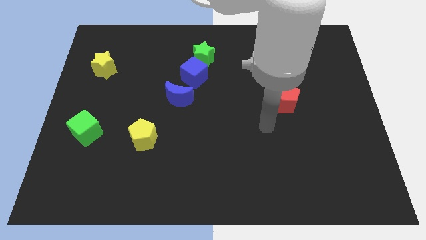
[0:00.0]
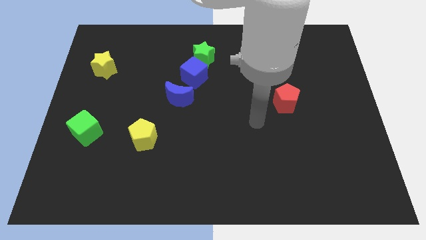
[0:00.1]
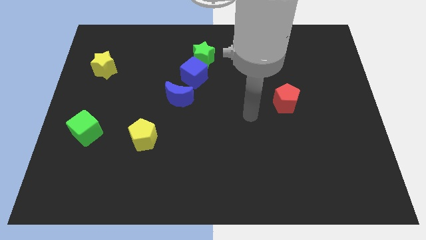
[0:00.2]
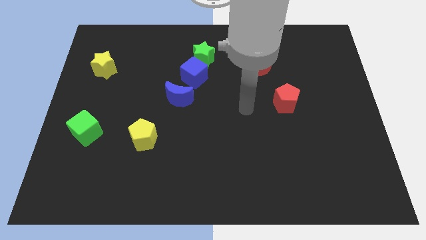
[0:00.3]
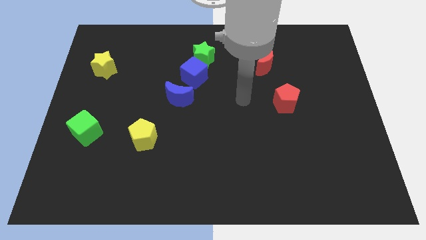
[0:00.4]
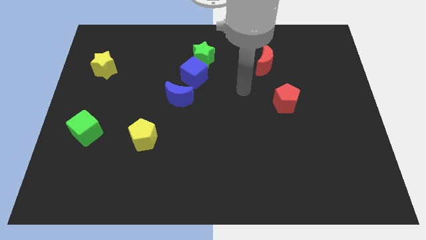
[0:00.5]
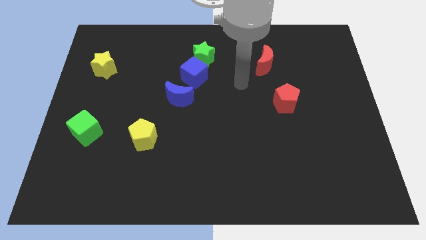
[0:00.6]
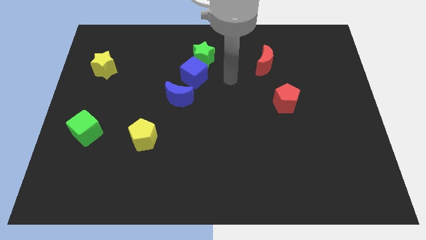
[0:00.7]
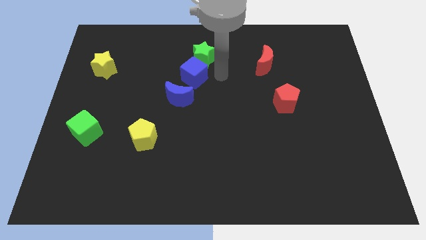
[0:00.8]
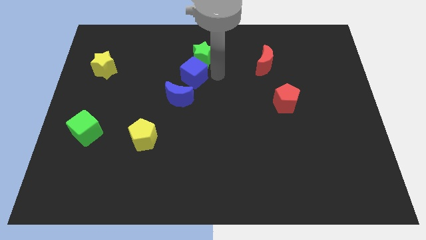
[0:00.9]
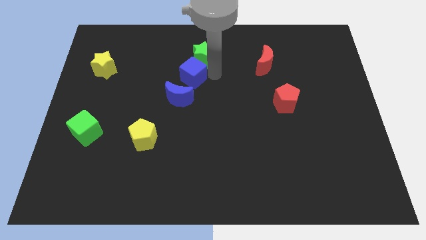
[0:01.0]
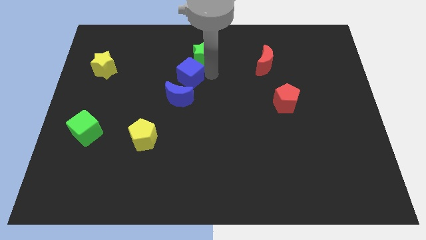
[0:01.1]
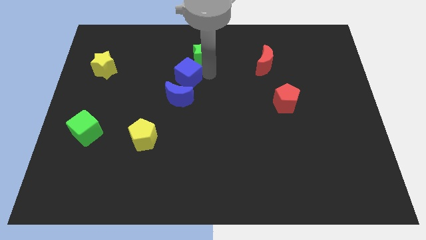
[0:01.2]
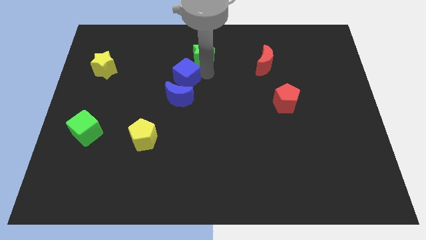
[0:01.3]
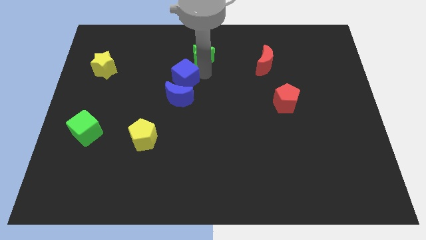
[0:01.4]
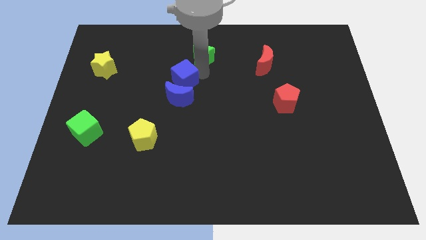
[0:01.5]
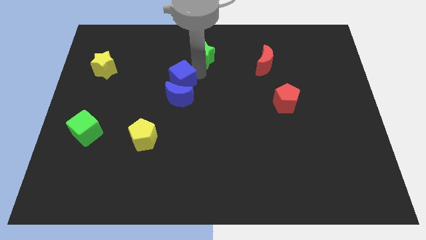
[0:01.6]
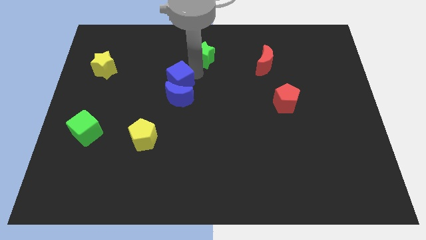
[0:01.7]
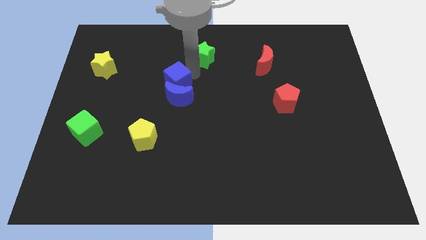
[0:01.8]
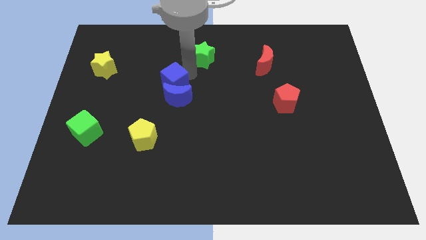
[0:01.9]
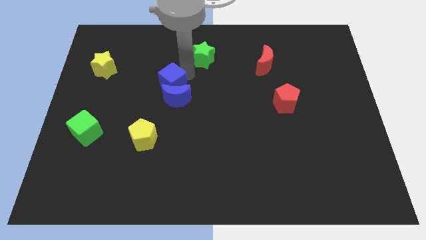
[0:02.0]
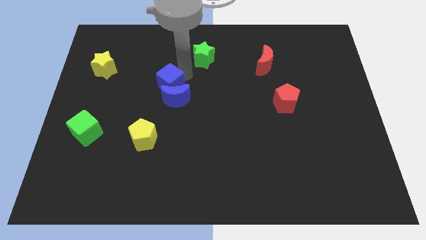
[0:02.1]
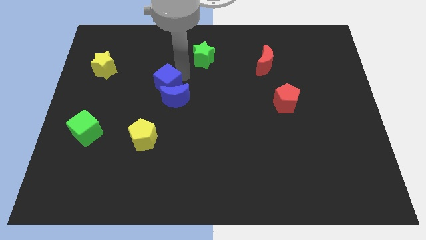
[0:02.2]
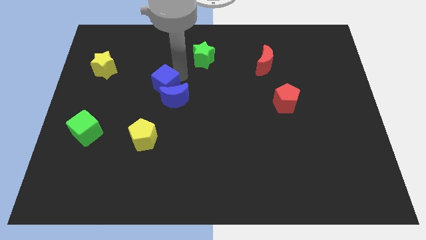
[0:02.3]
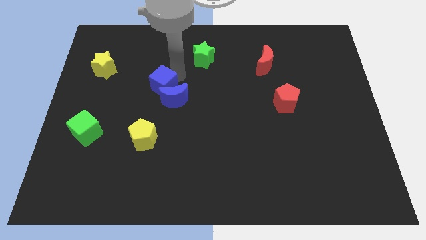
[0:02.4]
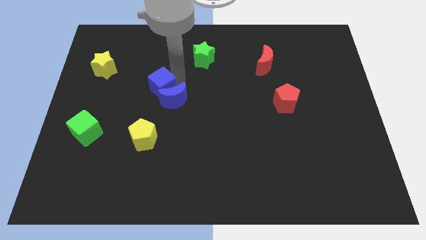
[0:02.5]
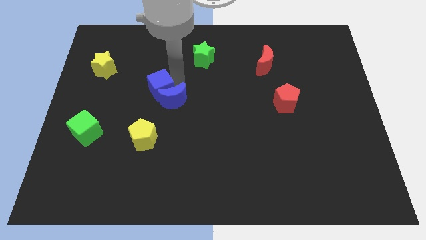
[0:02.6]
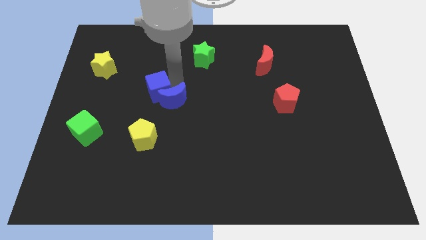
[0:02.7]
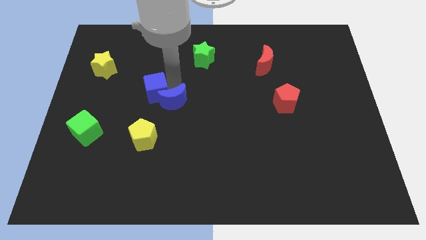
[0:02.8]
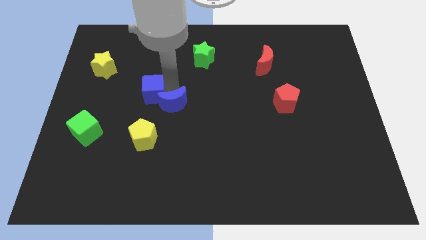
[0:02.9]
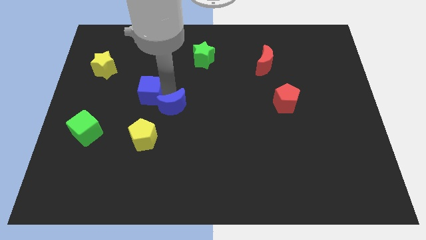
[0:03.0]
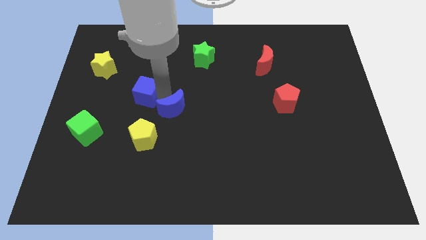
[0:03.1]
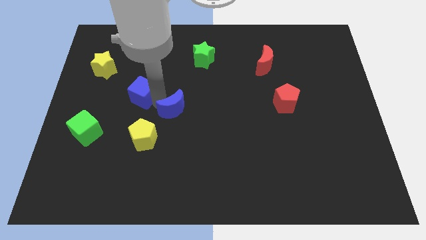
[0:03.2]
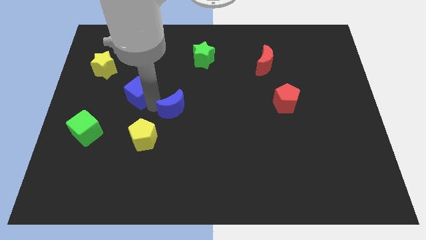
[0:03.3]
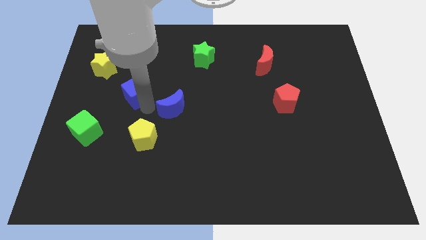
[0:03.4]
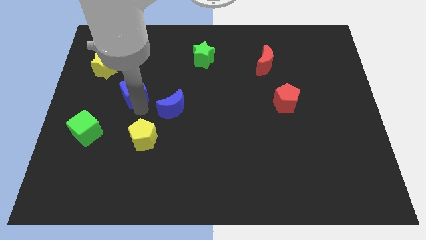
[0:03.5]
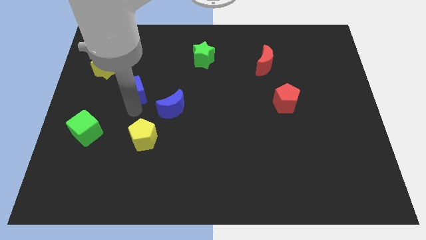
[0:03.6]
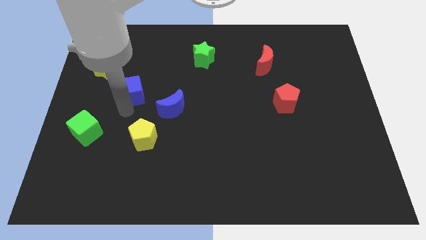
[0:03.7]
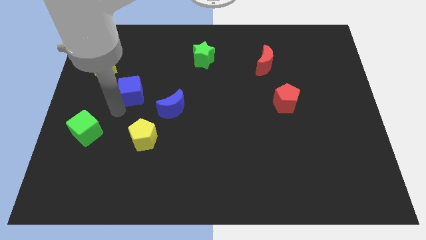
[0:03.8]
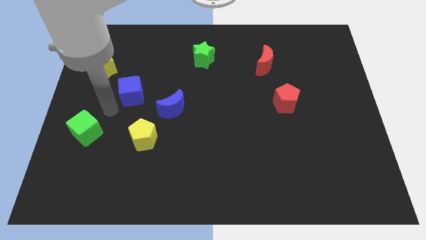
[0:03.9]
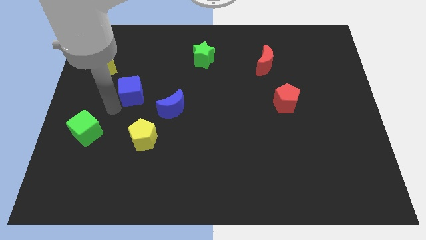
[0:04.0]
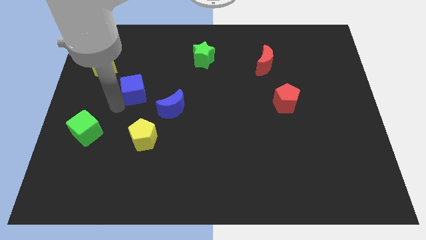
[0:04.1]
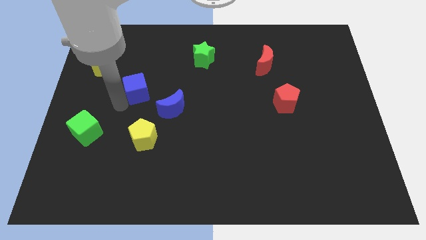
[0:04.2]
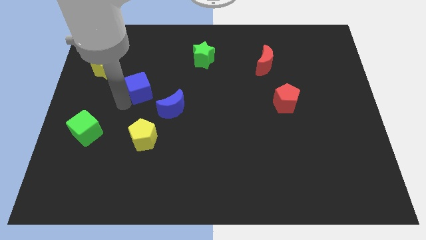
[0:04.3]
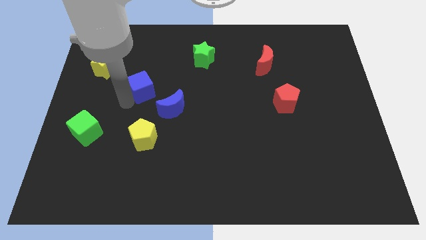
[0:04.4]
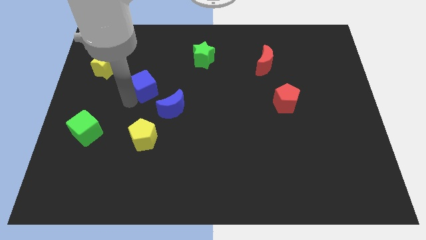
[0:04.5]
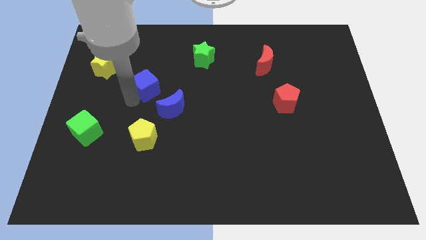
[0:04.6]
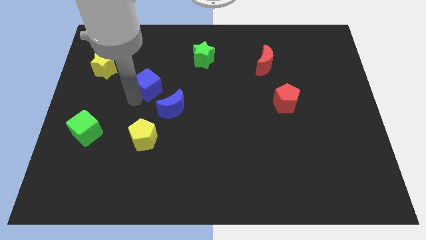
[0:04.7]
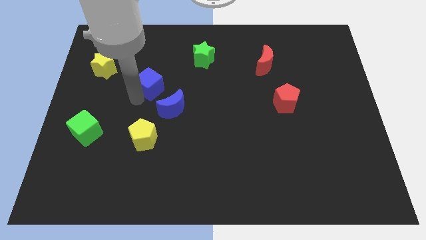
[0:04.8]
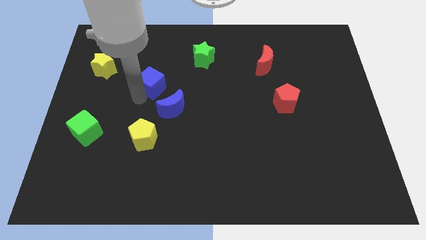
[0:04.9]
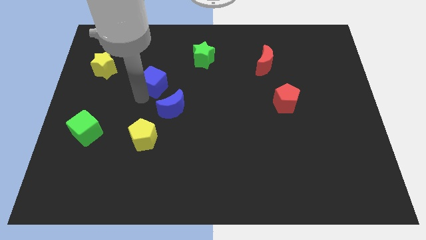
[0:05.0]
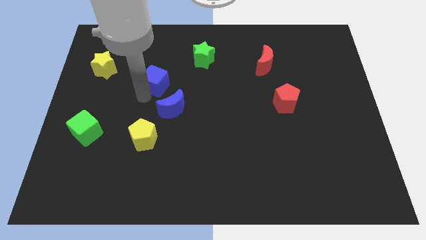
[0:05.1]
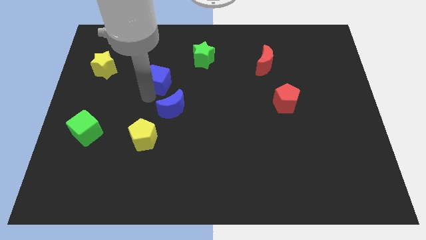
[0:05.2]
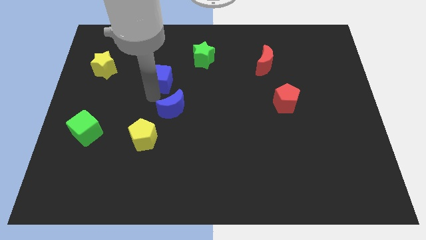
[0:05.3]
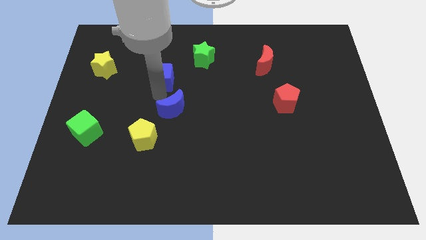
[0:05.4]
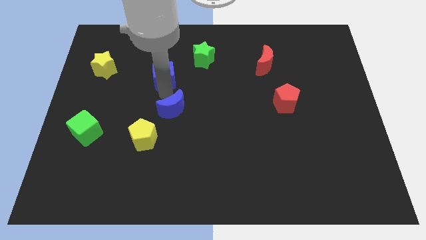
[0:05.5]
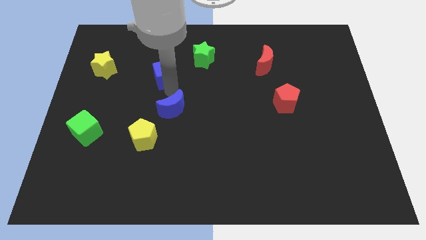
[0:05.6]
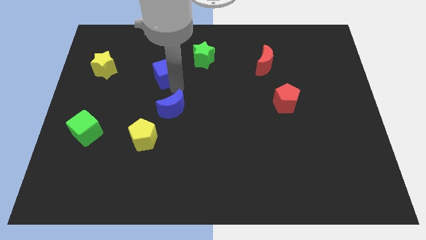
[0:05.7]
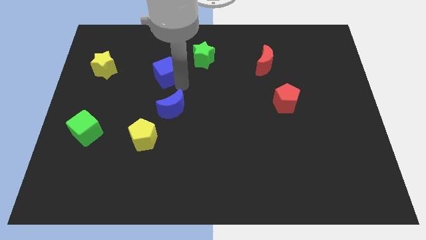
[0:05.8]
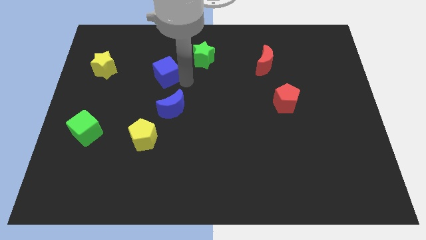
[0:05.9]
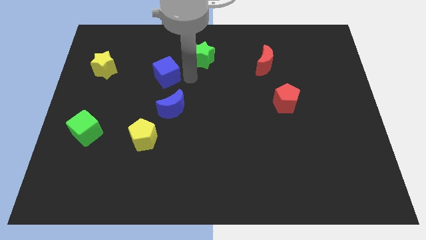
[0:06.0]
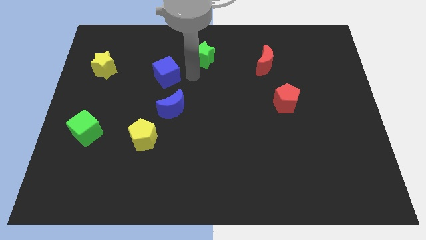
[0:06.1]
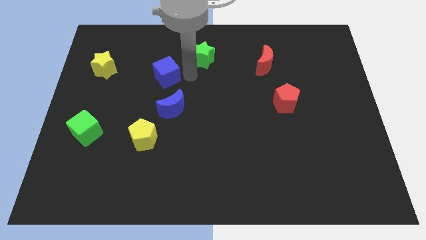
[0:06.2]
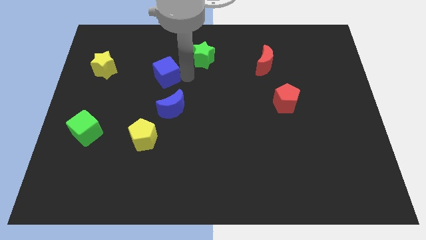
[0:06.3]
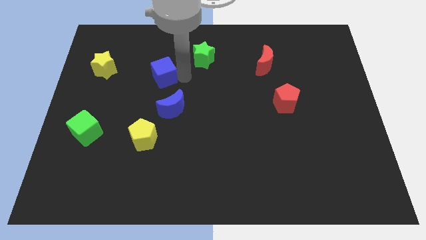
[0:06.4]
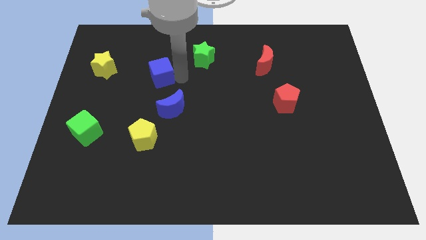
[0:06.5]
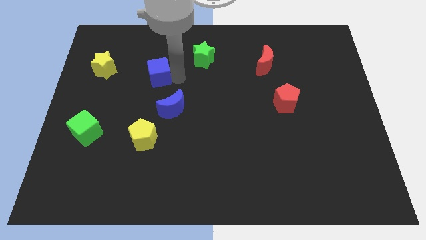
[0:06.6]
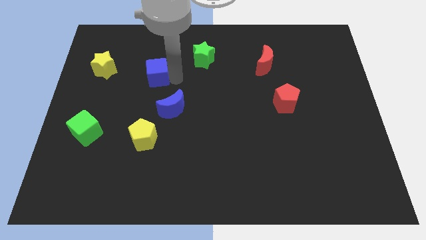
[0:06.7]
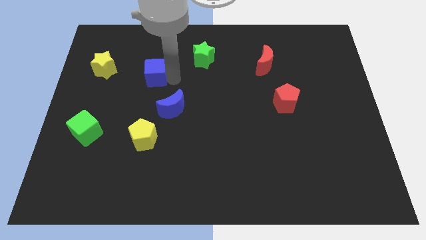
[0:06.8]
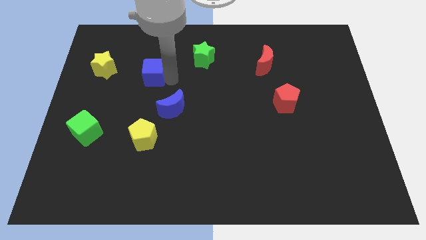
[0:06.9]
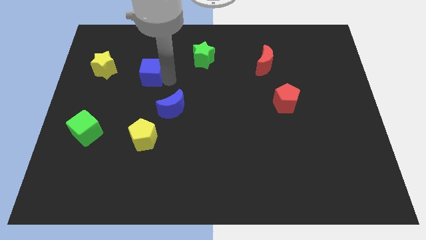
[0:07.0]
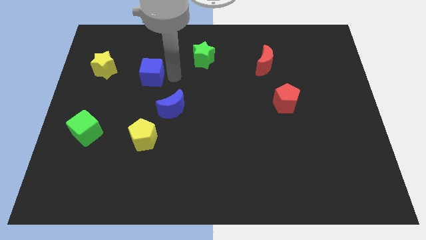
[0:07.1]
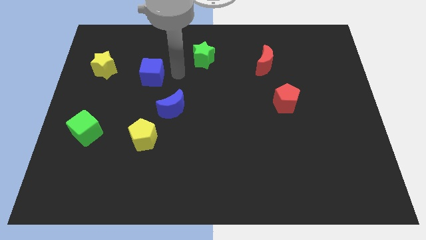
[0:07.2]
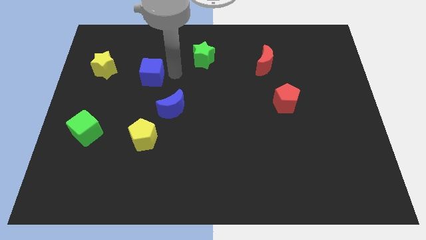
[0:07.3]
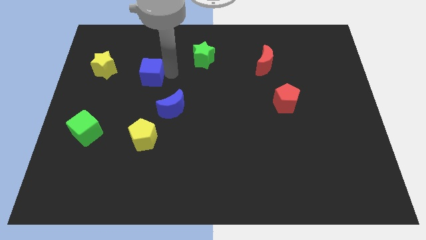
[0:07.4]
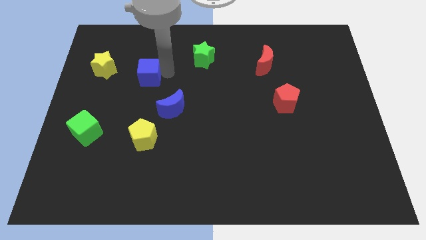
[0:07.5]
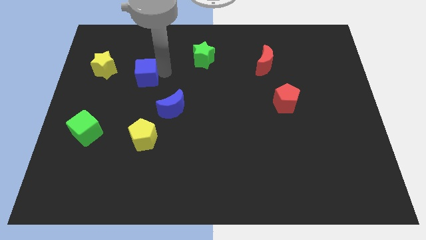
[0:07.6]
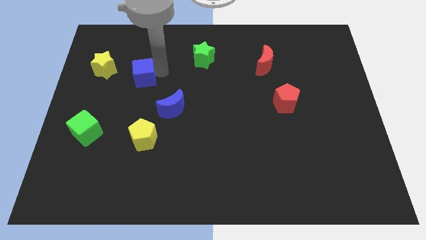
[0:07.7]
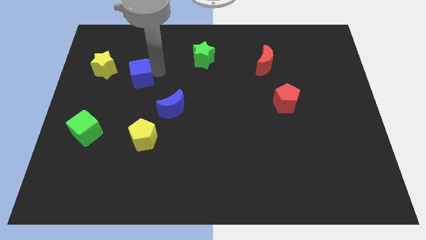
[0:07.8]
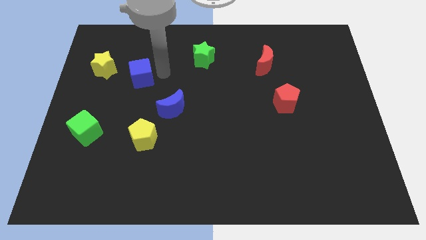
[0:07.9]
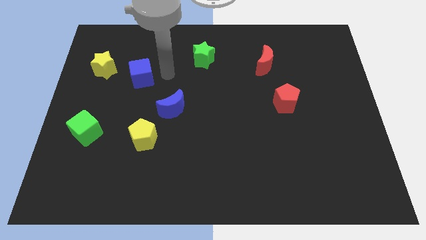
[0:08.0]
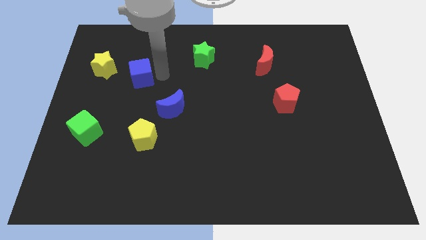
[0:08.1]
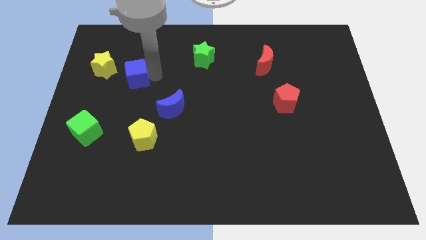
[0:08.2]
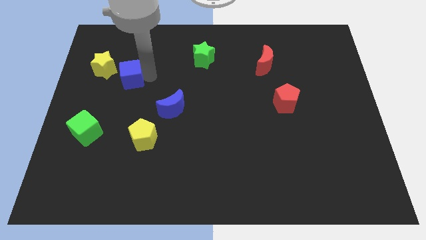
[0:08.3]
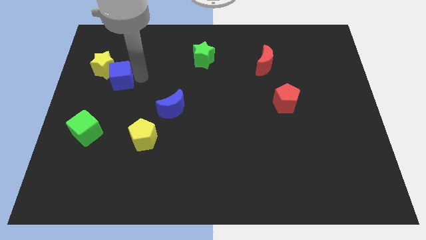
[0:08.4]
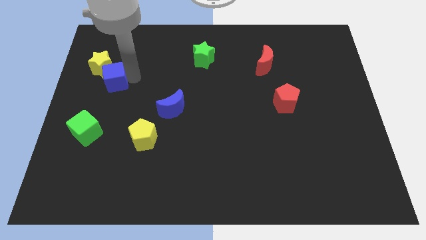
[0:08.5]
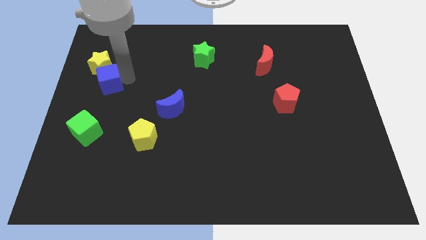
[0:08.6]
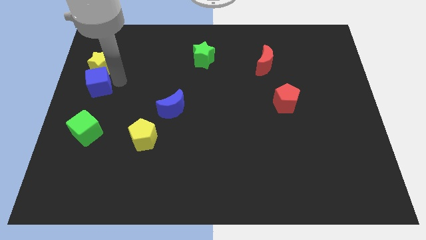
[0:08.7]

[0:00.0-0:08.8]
move the blue cube to the center left
